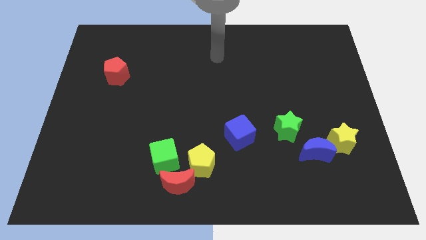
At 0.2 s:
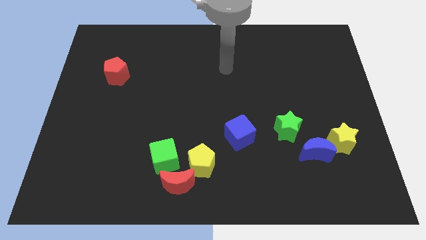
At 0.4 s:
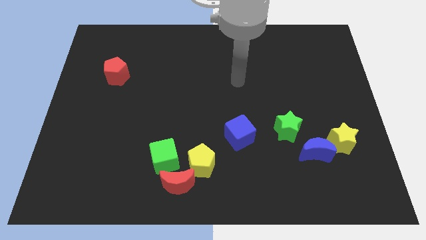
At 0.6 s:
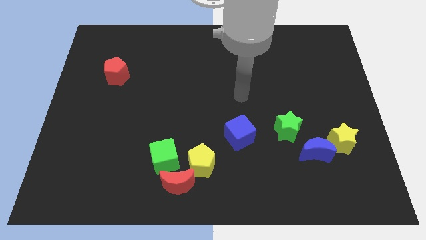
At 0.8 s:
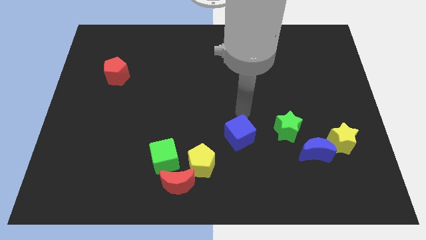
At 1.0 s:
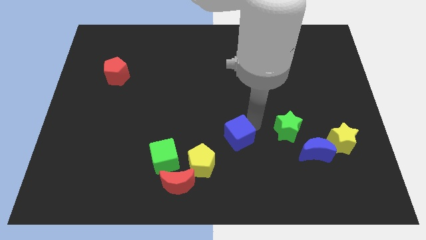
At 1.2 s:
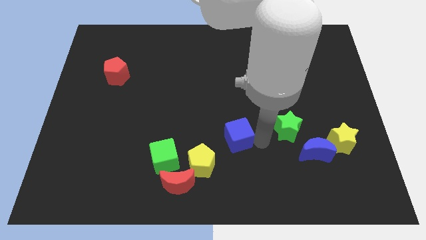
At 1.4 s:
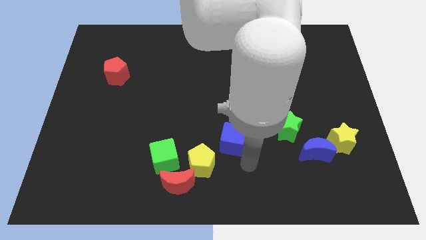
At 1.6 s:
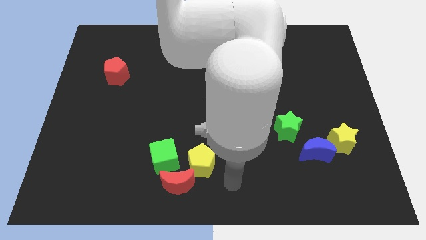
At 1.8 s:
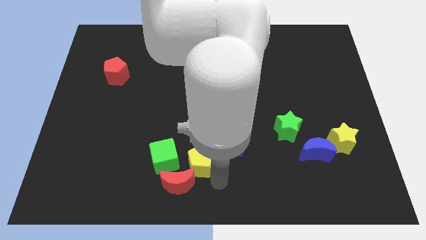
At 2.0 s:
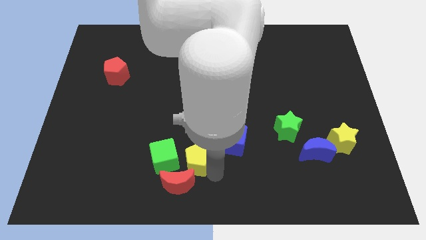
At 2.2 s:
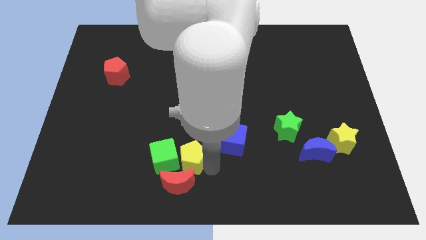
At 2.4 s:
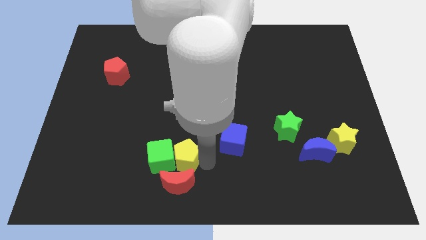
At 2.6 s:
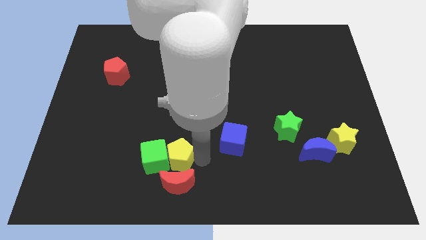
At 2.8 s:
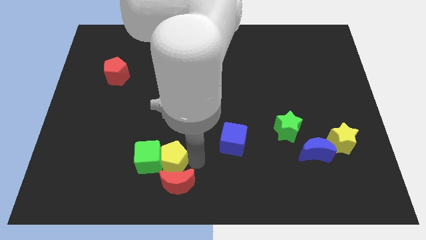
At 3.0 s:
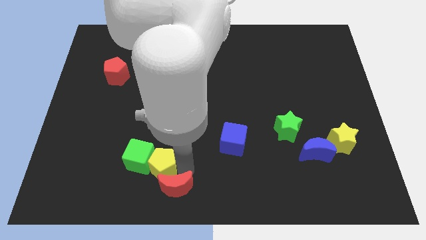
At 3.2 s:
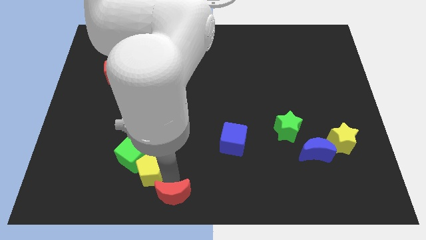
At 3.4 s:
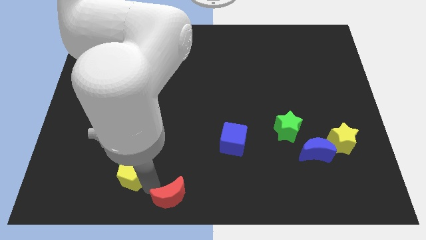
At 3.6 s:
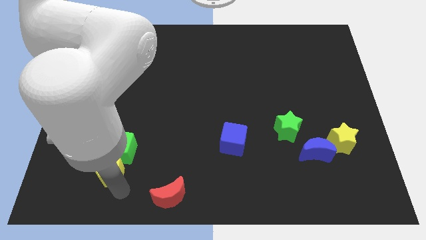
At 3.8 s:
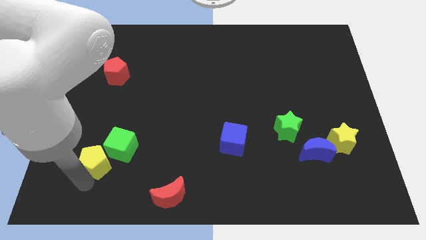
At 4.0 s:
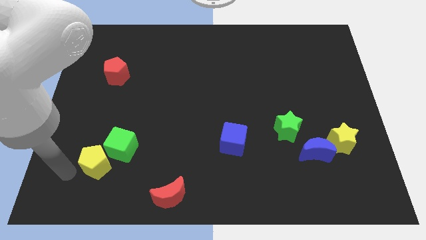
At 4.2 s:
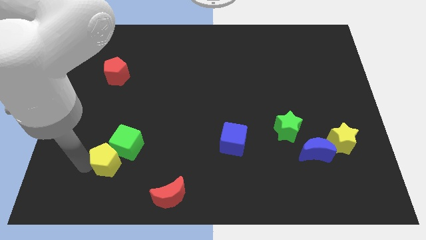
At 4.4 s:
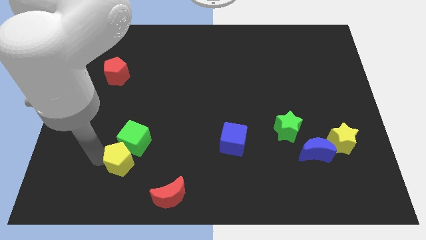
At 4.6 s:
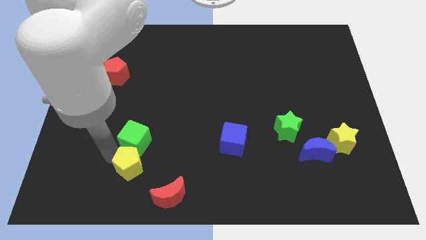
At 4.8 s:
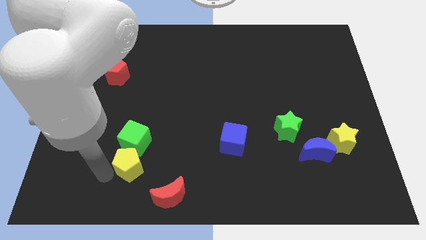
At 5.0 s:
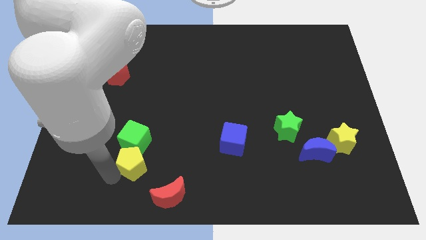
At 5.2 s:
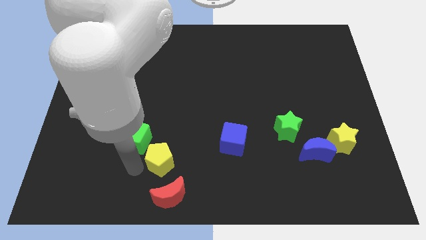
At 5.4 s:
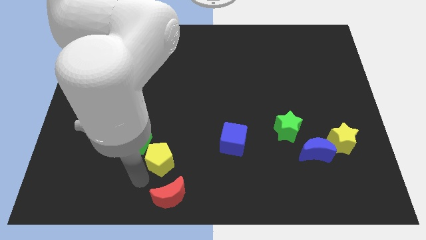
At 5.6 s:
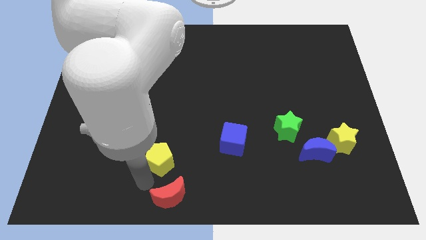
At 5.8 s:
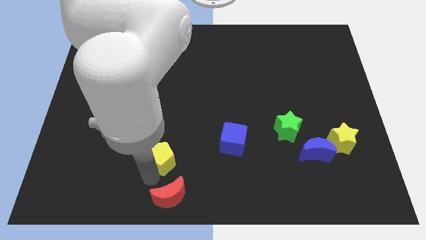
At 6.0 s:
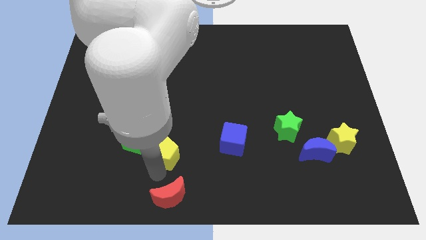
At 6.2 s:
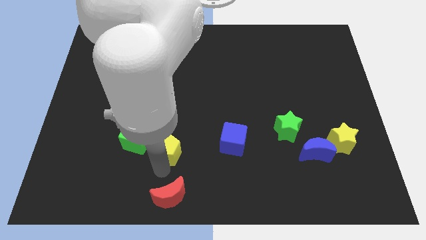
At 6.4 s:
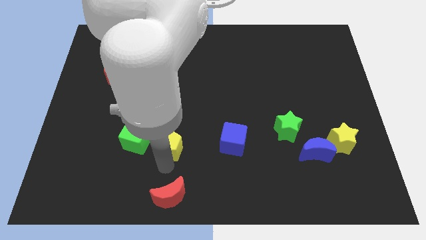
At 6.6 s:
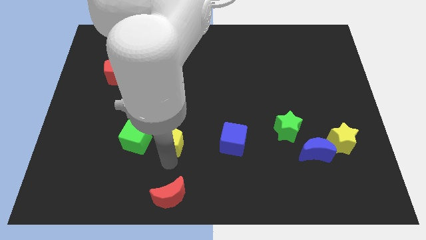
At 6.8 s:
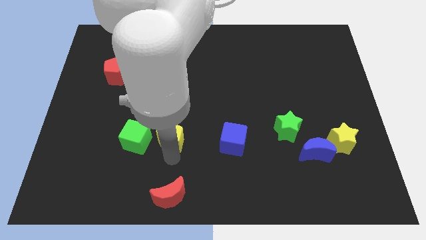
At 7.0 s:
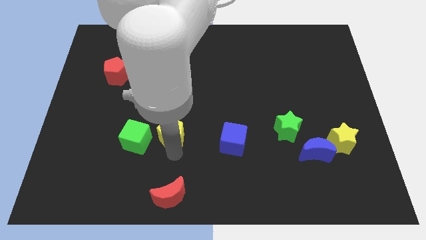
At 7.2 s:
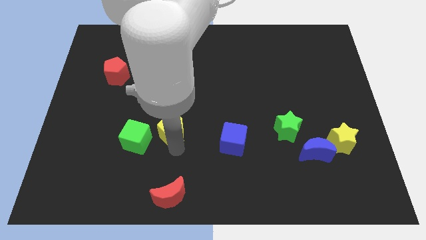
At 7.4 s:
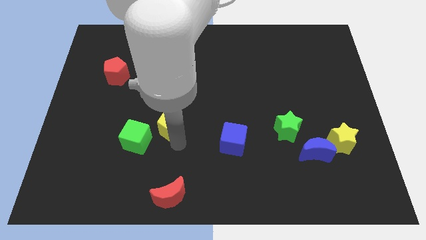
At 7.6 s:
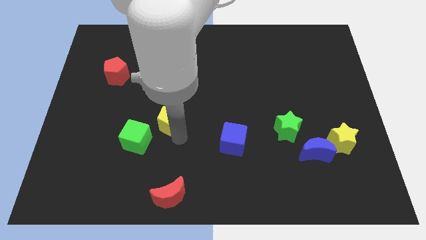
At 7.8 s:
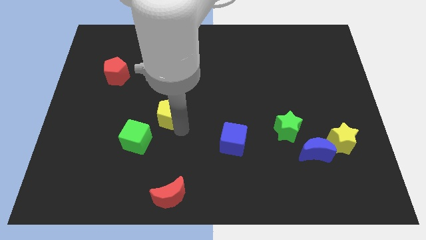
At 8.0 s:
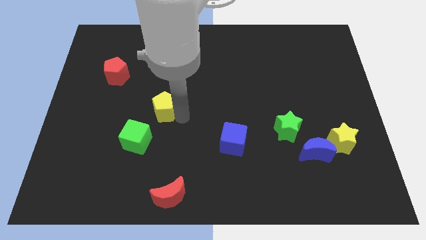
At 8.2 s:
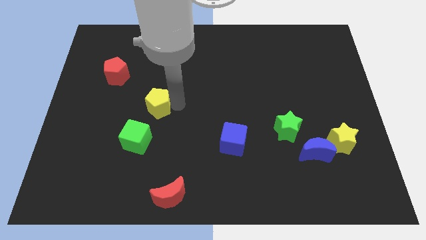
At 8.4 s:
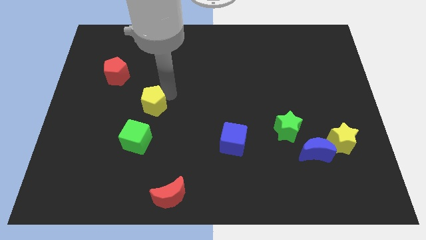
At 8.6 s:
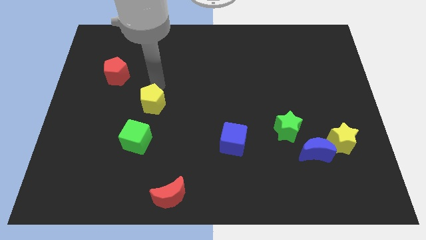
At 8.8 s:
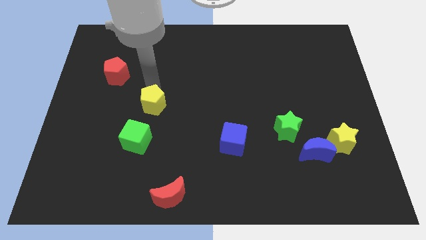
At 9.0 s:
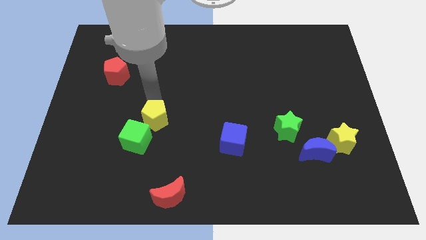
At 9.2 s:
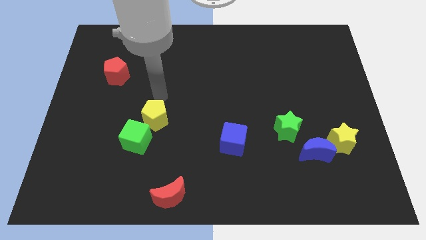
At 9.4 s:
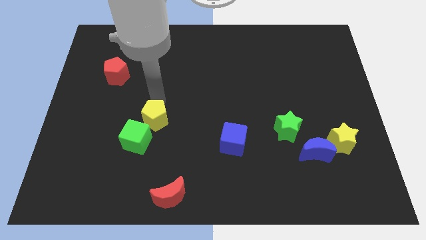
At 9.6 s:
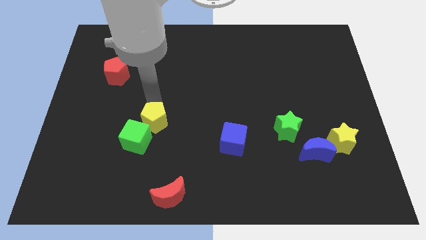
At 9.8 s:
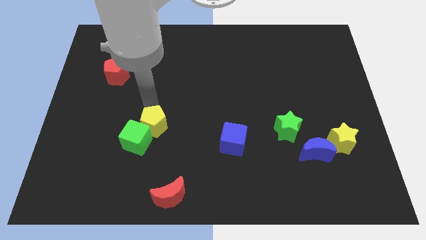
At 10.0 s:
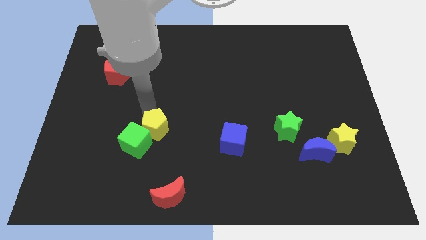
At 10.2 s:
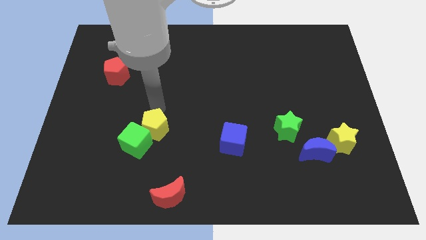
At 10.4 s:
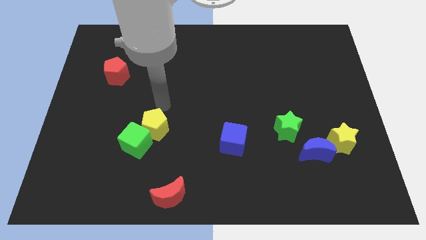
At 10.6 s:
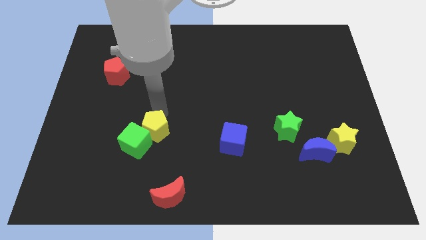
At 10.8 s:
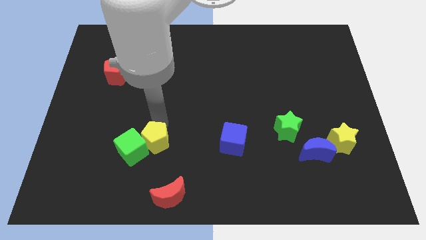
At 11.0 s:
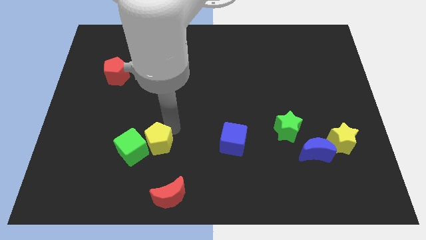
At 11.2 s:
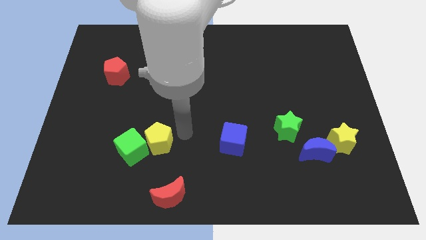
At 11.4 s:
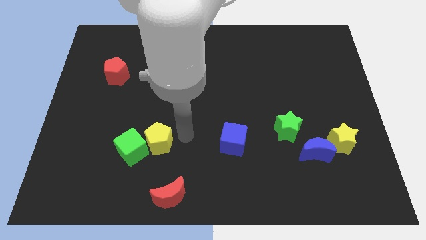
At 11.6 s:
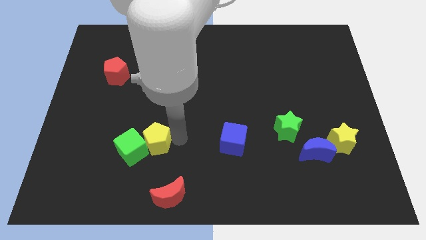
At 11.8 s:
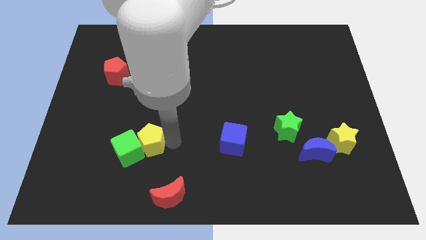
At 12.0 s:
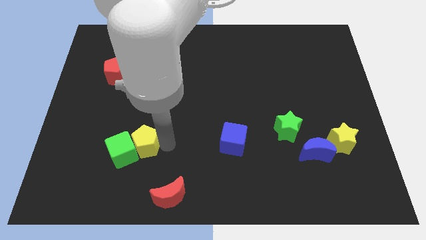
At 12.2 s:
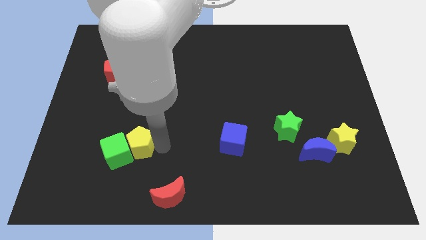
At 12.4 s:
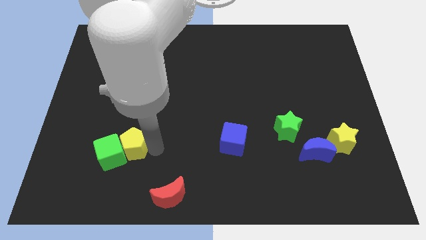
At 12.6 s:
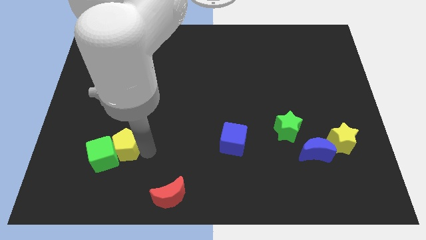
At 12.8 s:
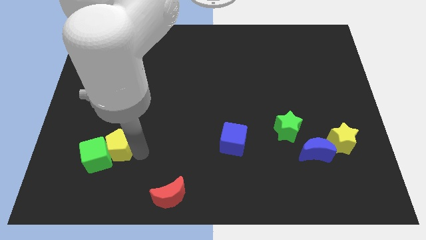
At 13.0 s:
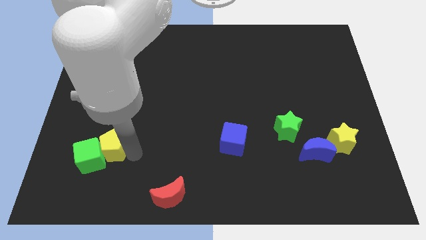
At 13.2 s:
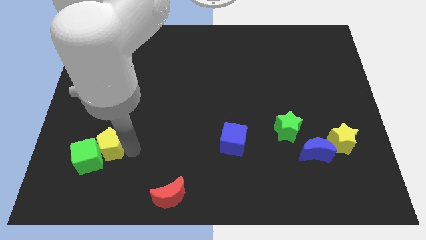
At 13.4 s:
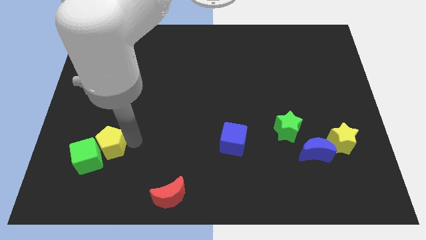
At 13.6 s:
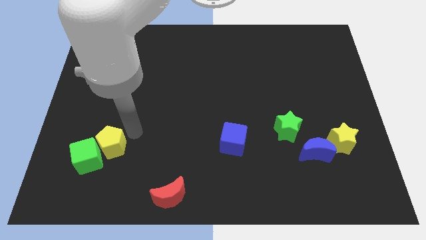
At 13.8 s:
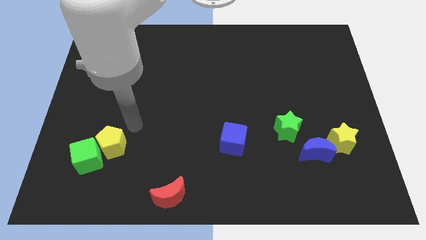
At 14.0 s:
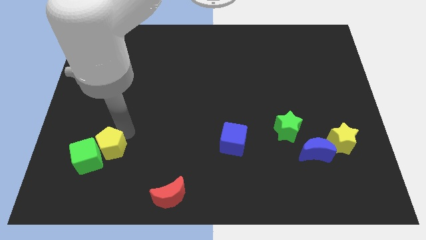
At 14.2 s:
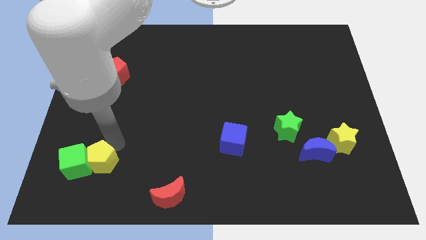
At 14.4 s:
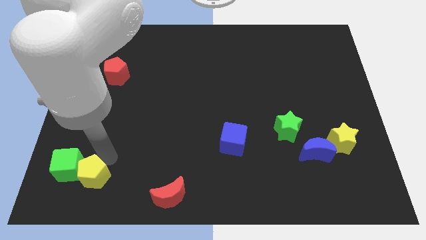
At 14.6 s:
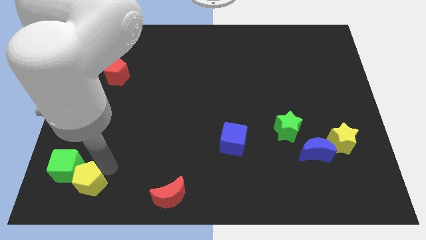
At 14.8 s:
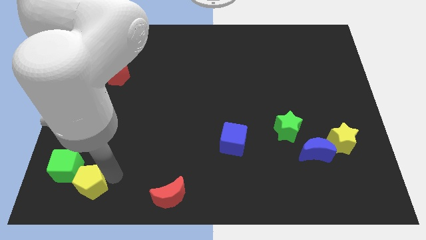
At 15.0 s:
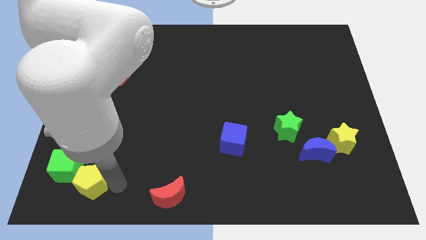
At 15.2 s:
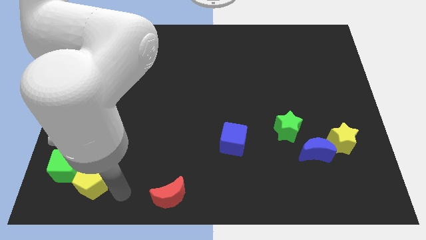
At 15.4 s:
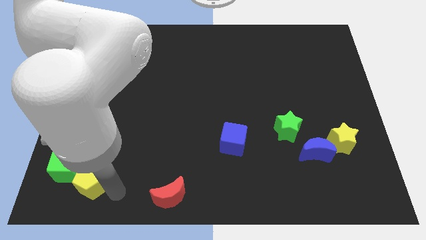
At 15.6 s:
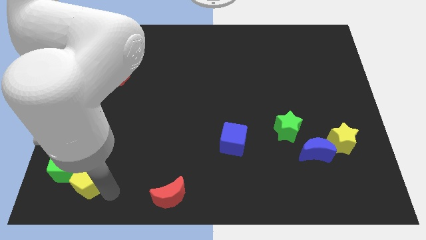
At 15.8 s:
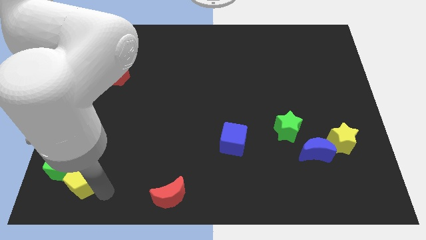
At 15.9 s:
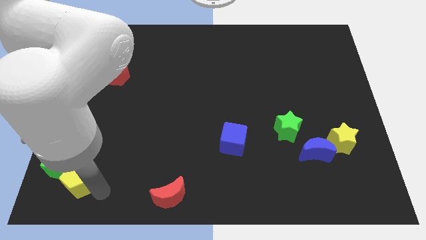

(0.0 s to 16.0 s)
move the yellow pentagon to the bottom left corner
